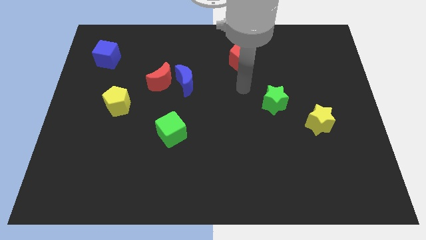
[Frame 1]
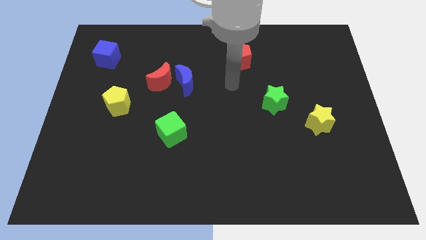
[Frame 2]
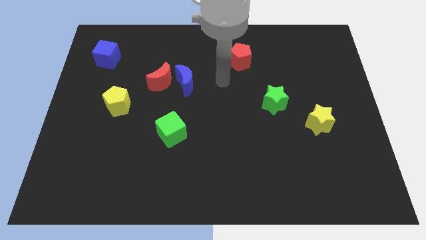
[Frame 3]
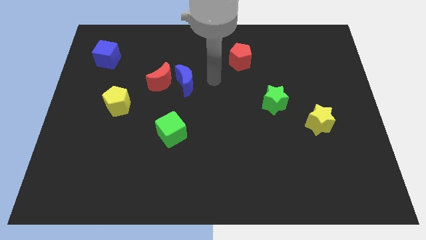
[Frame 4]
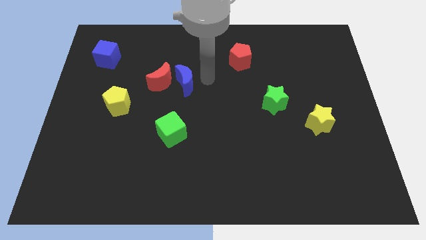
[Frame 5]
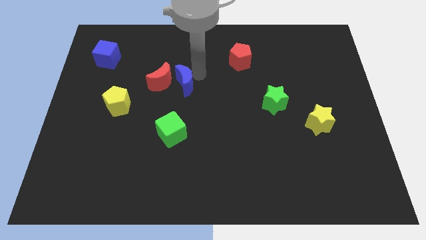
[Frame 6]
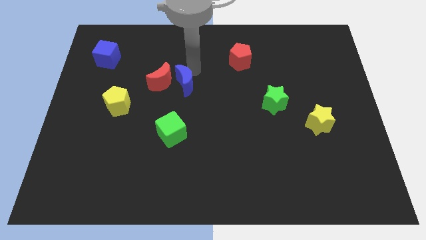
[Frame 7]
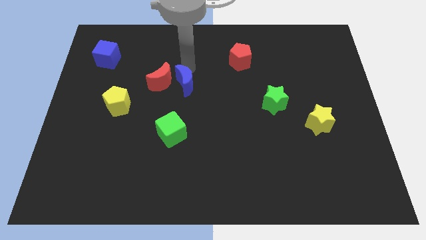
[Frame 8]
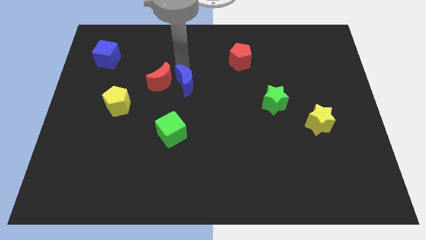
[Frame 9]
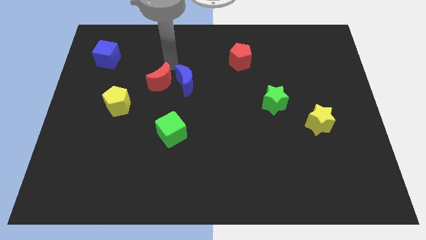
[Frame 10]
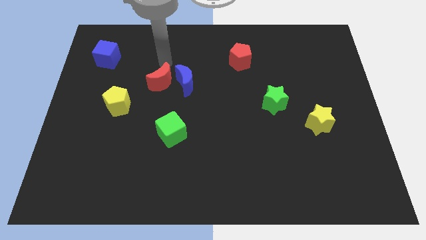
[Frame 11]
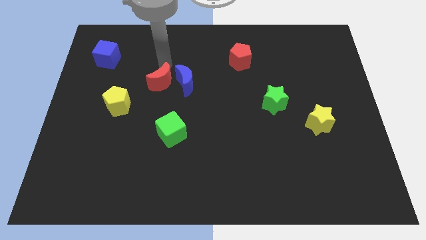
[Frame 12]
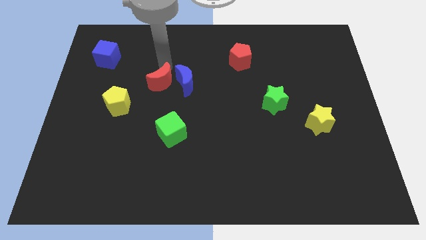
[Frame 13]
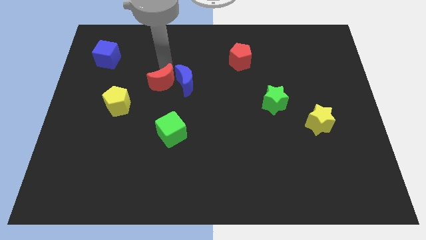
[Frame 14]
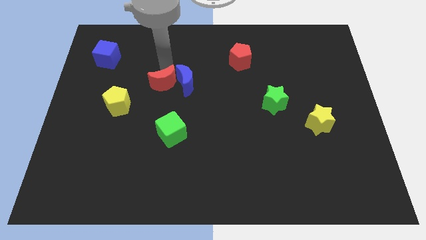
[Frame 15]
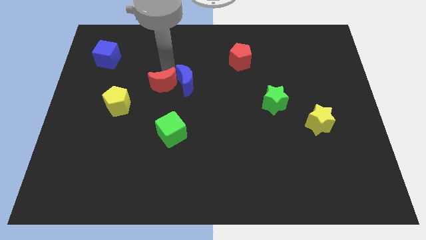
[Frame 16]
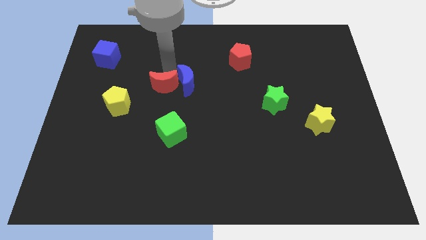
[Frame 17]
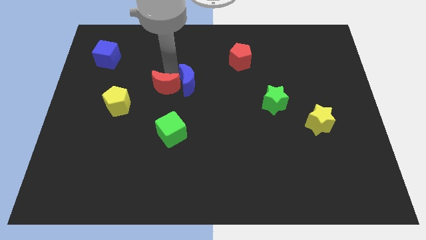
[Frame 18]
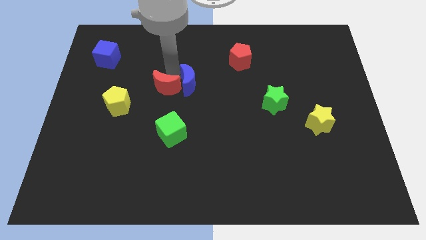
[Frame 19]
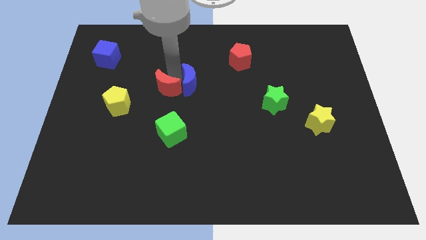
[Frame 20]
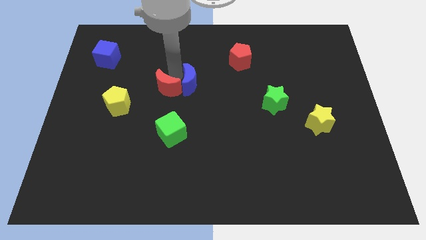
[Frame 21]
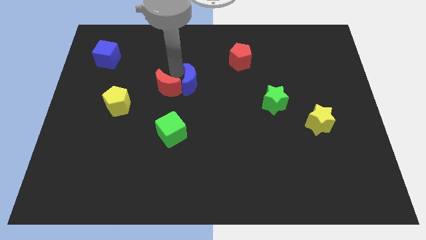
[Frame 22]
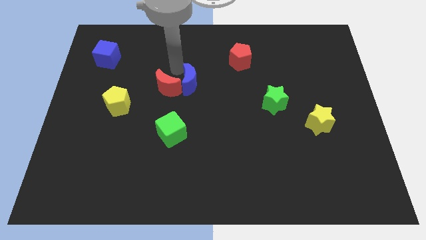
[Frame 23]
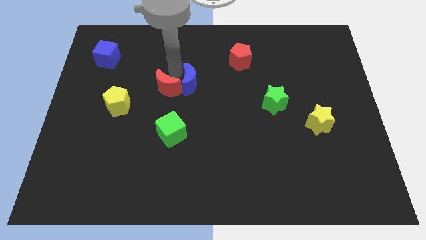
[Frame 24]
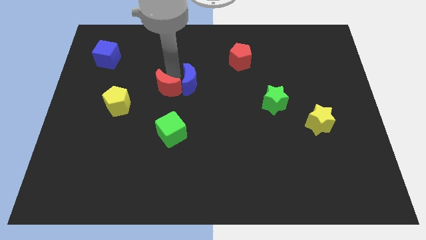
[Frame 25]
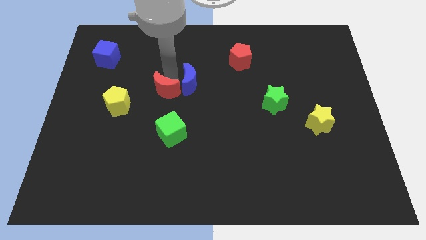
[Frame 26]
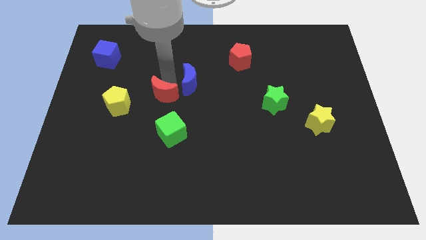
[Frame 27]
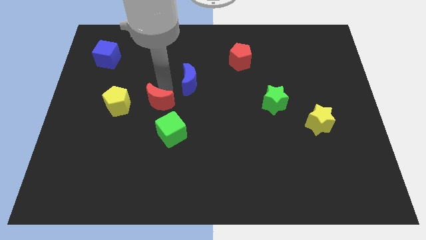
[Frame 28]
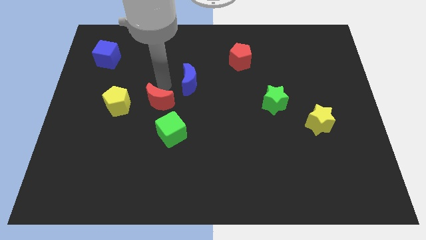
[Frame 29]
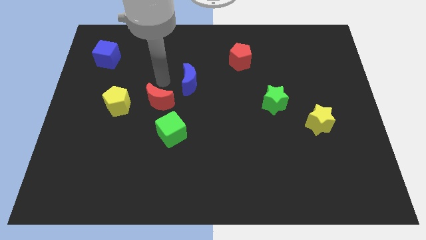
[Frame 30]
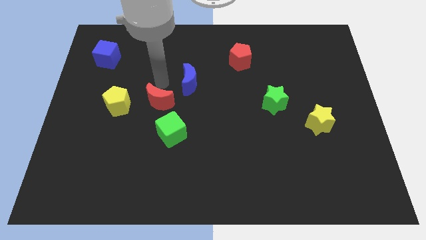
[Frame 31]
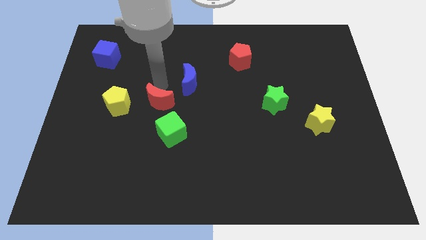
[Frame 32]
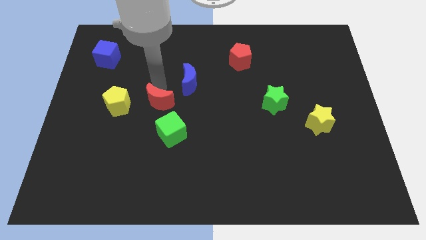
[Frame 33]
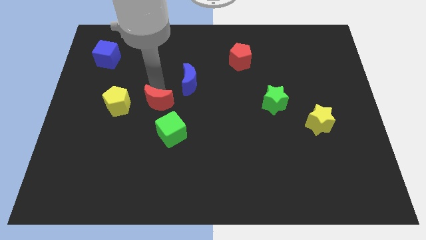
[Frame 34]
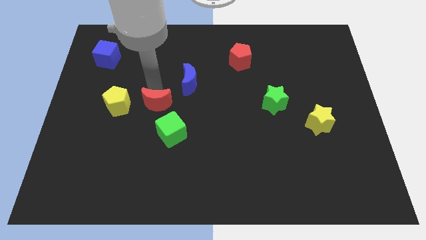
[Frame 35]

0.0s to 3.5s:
slightly push the red moon down

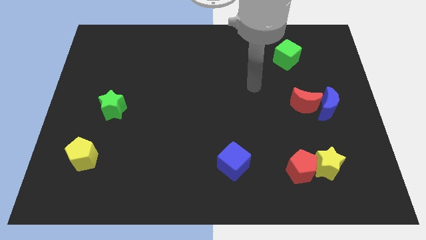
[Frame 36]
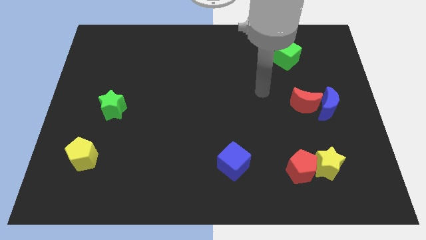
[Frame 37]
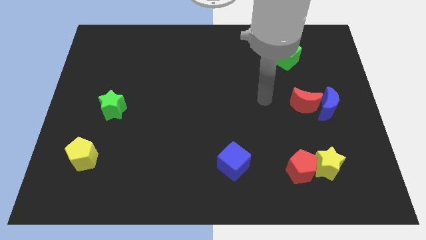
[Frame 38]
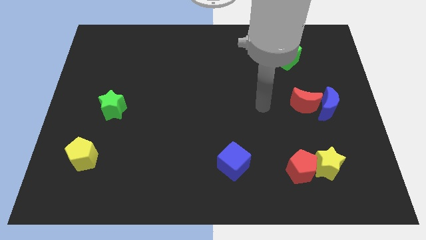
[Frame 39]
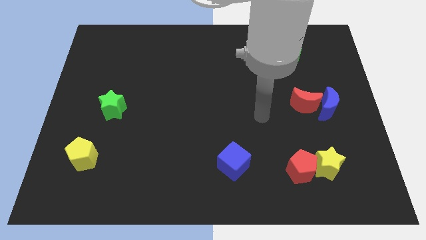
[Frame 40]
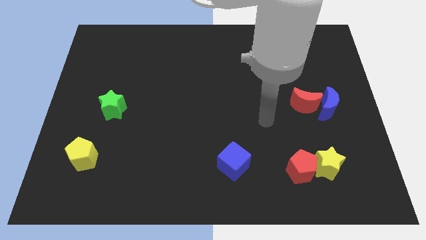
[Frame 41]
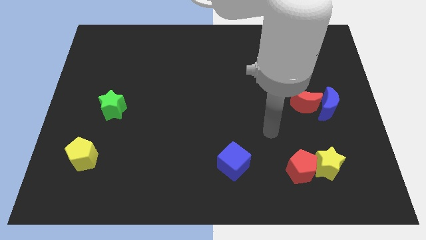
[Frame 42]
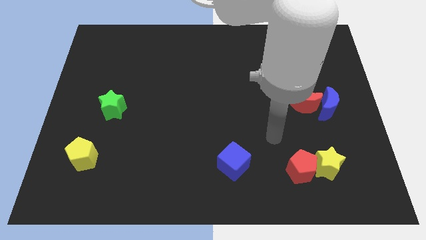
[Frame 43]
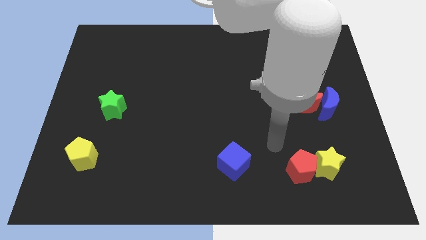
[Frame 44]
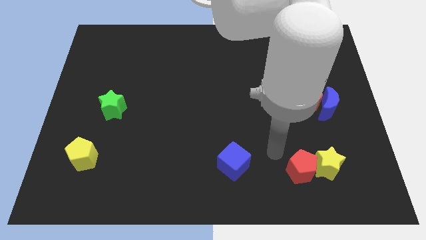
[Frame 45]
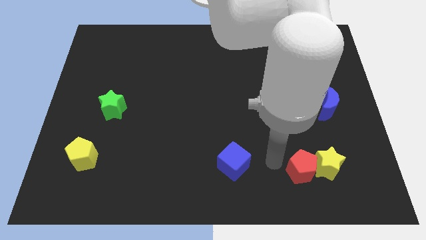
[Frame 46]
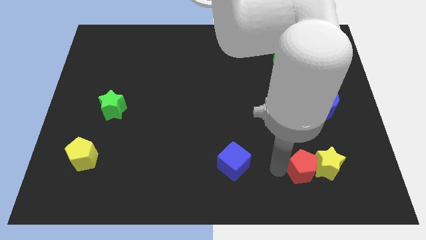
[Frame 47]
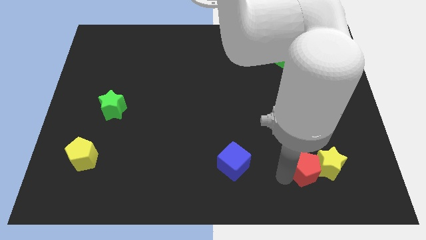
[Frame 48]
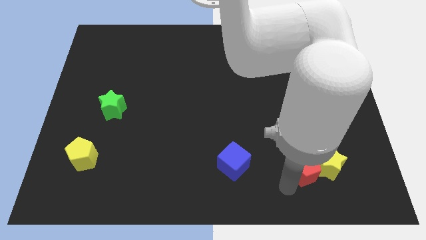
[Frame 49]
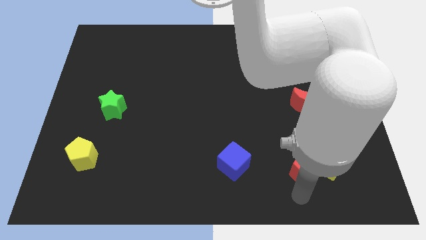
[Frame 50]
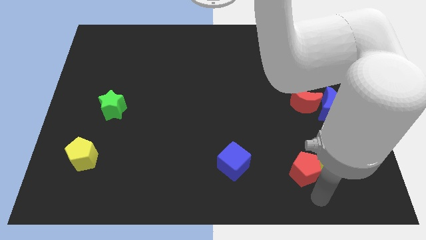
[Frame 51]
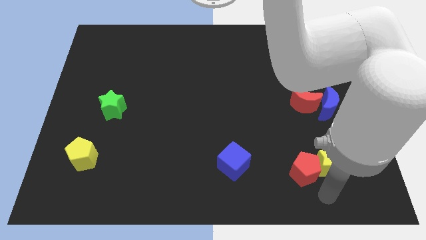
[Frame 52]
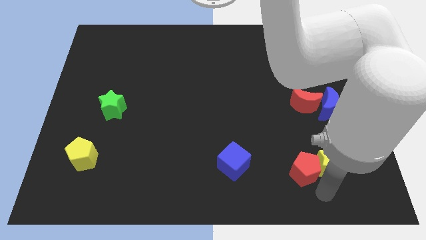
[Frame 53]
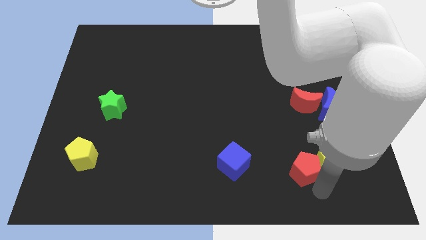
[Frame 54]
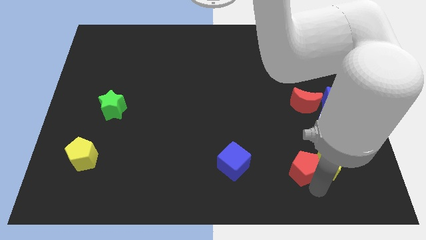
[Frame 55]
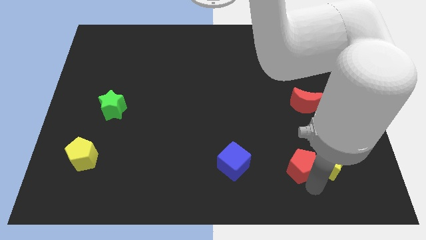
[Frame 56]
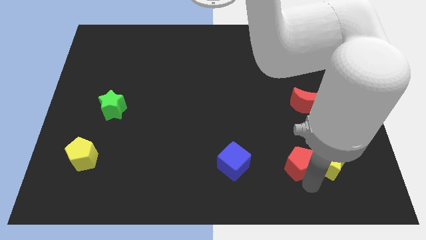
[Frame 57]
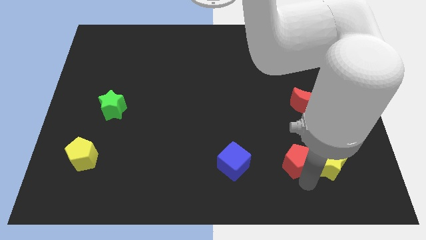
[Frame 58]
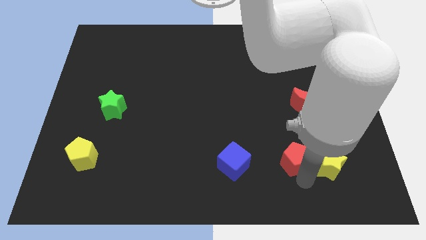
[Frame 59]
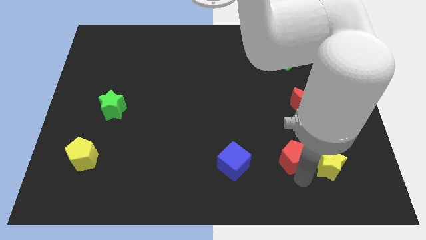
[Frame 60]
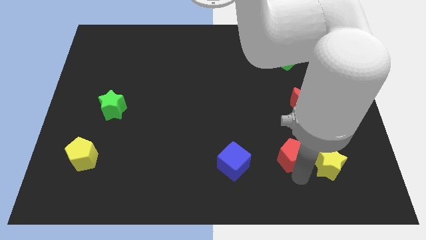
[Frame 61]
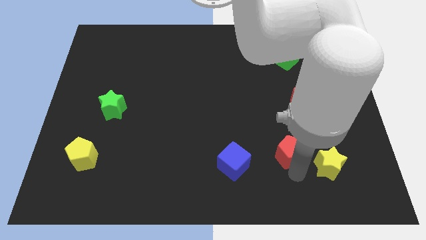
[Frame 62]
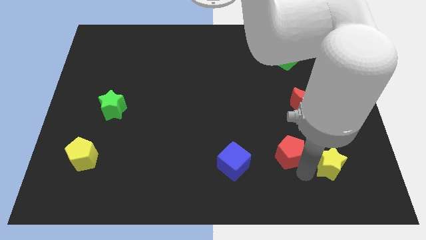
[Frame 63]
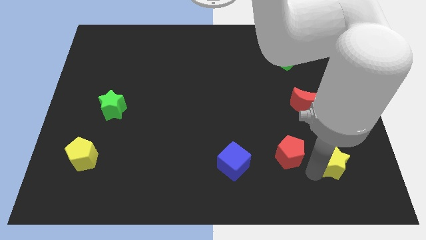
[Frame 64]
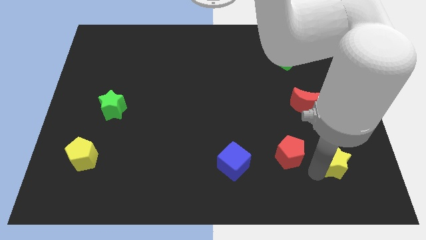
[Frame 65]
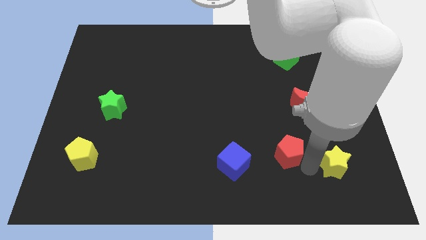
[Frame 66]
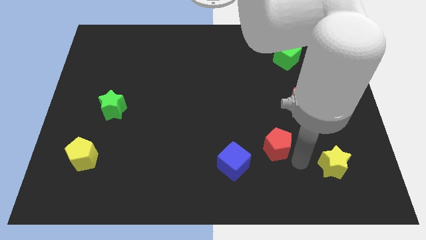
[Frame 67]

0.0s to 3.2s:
slide the red pentagon a little bit upwards and left diagonally

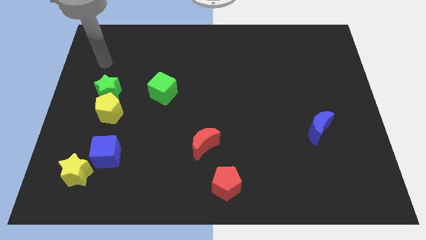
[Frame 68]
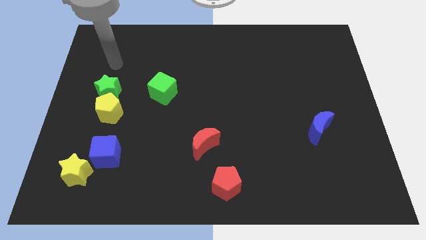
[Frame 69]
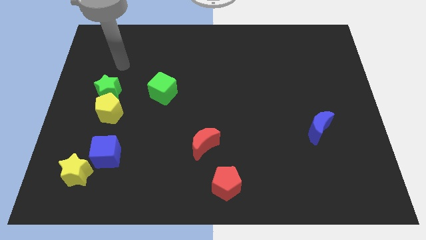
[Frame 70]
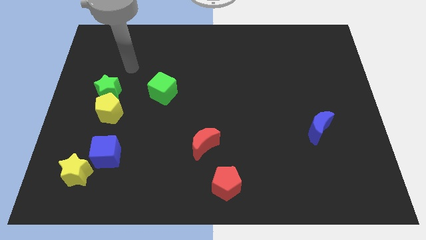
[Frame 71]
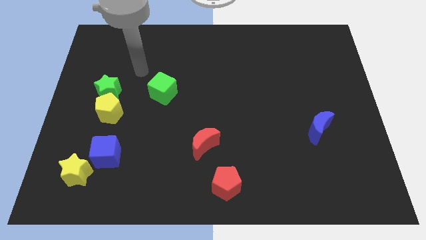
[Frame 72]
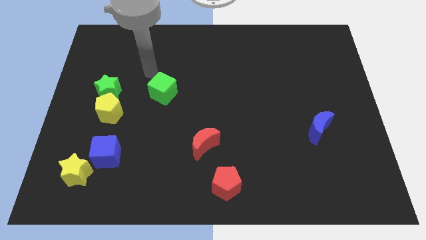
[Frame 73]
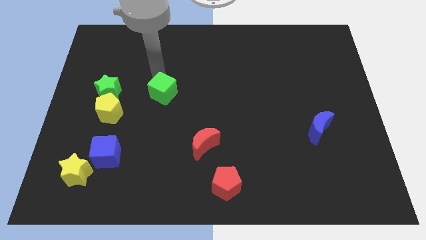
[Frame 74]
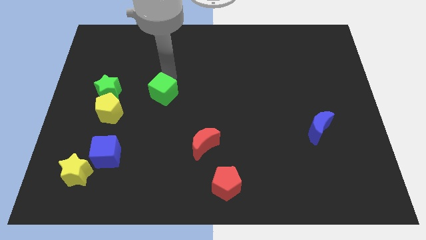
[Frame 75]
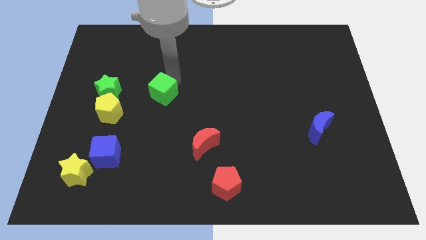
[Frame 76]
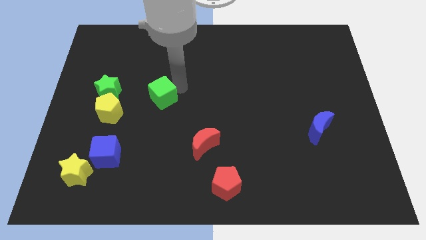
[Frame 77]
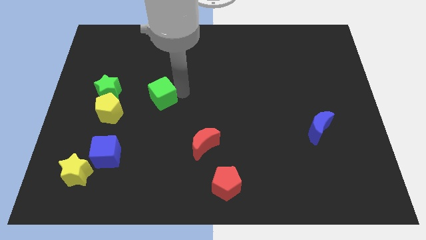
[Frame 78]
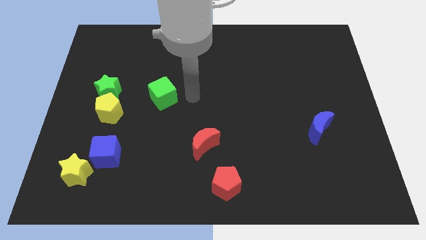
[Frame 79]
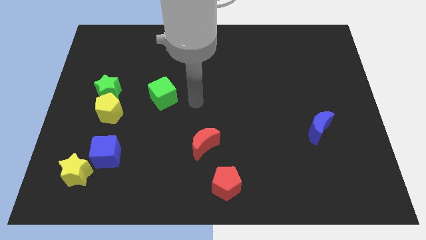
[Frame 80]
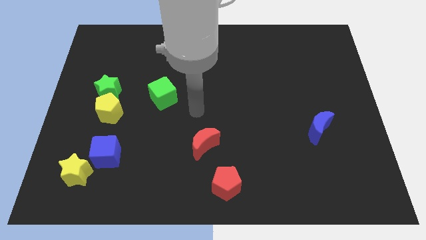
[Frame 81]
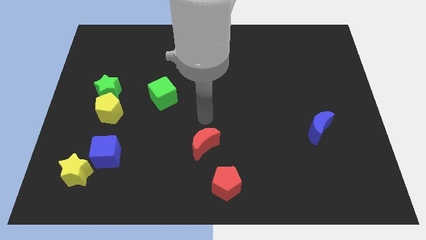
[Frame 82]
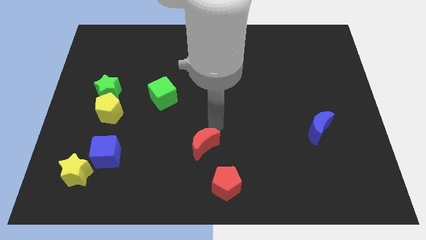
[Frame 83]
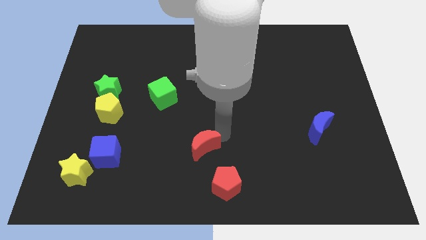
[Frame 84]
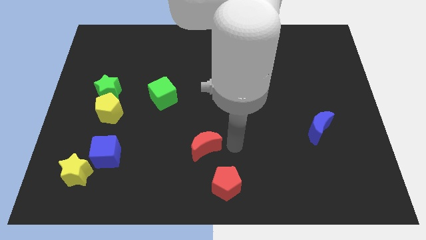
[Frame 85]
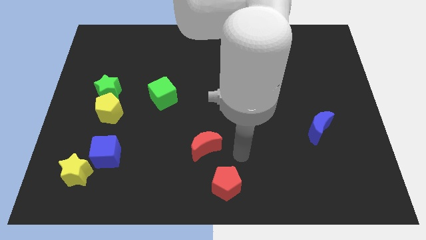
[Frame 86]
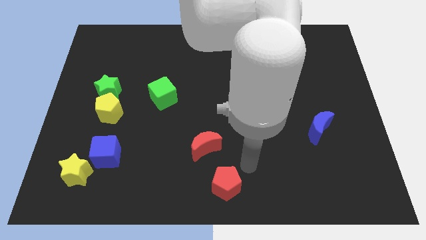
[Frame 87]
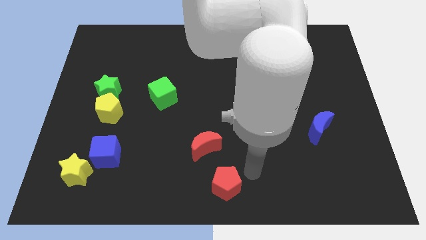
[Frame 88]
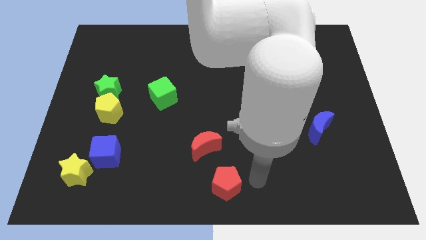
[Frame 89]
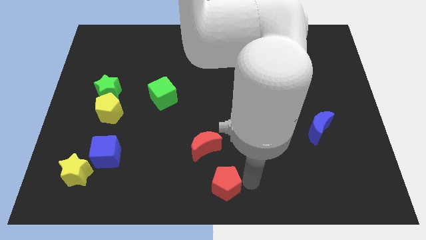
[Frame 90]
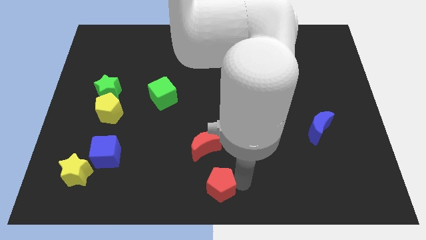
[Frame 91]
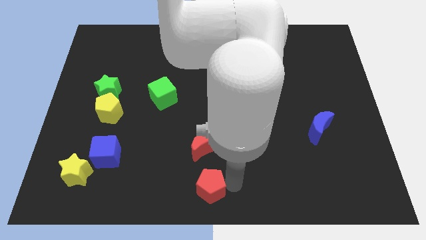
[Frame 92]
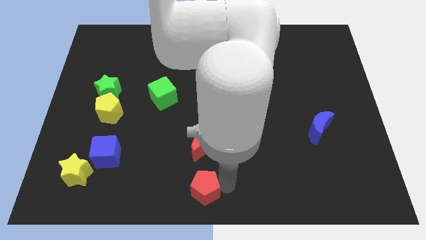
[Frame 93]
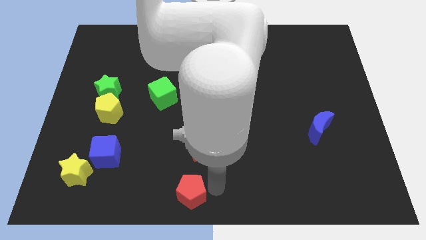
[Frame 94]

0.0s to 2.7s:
slide the red pentagon slightly to the left
